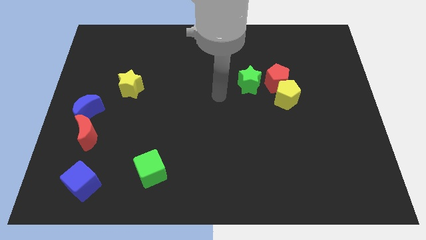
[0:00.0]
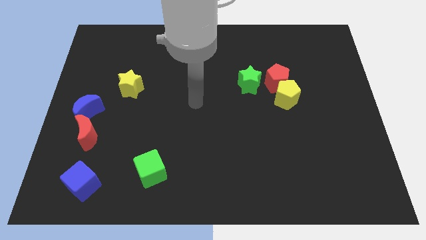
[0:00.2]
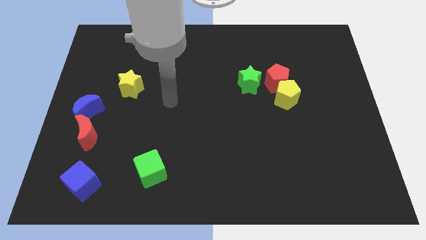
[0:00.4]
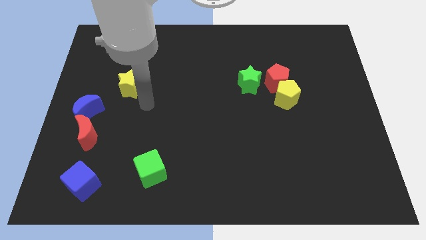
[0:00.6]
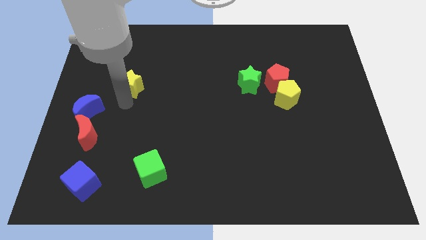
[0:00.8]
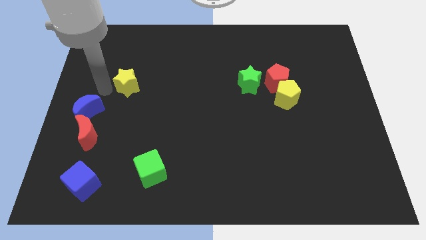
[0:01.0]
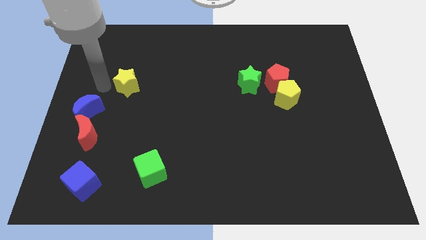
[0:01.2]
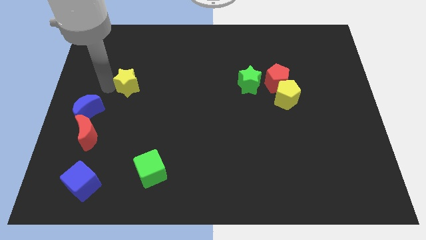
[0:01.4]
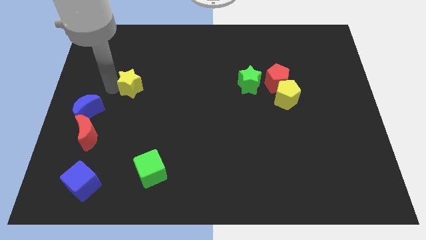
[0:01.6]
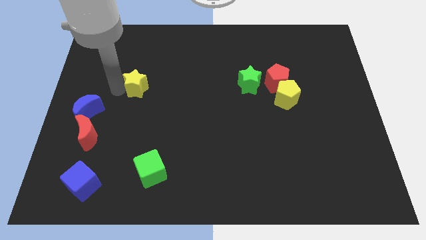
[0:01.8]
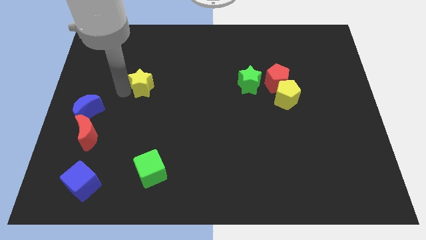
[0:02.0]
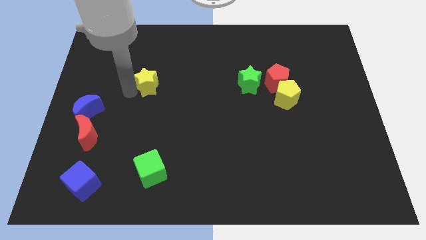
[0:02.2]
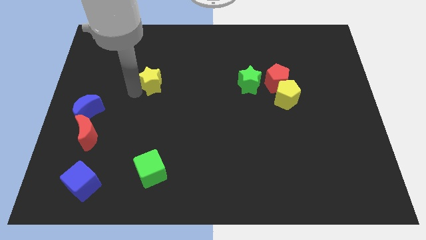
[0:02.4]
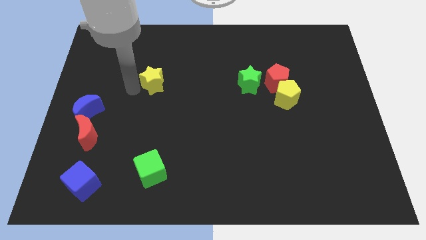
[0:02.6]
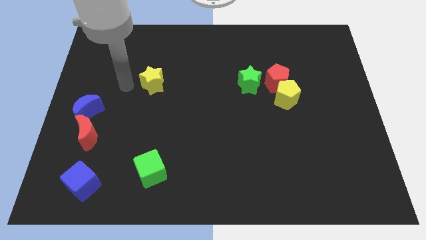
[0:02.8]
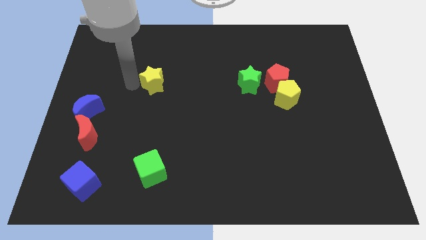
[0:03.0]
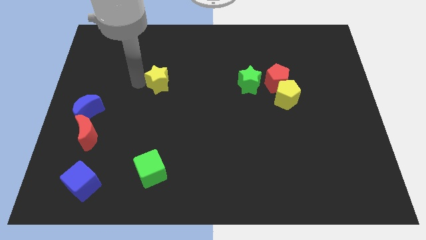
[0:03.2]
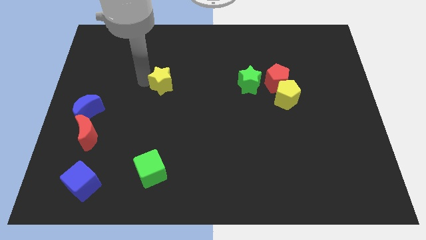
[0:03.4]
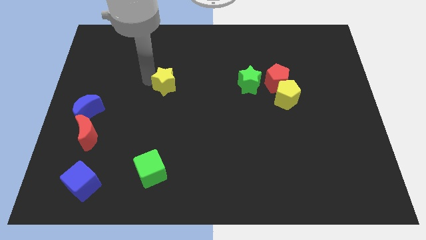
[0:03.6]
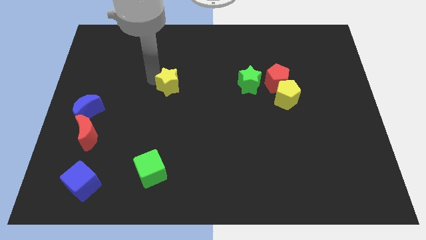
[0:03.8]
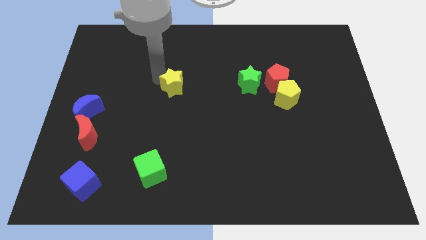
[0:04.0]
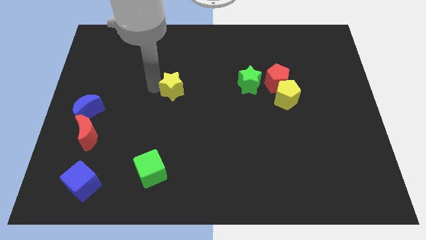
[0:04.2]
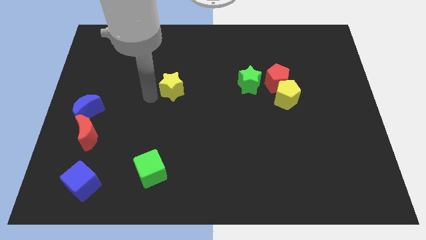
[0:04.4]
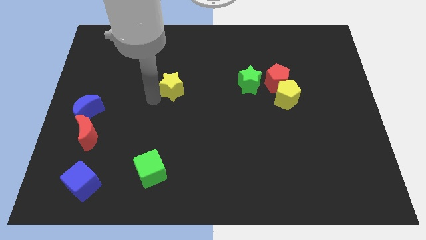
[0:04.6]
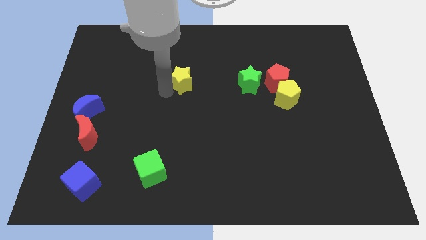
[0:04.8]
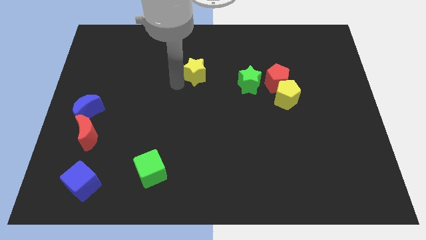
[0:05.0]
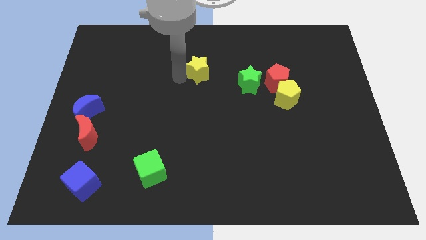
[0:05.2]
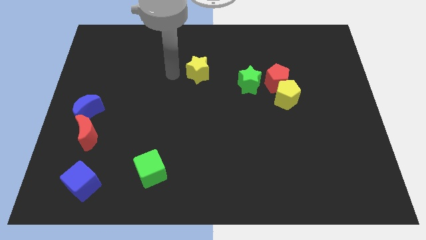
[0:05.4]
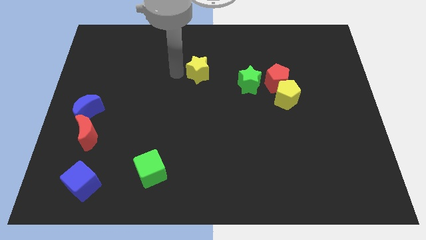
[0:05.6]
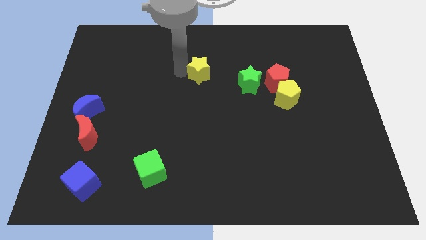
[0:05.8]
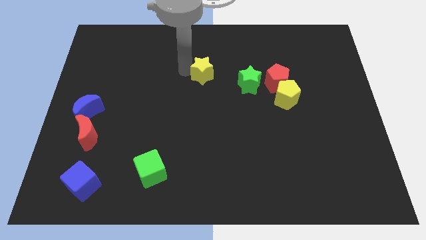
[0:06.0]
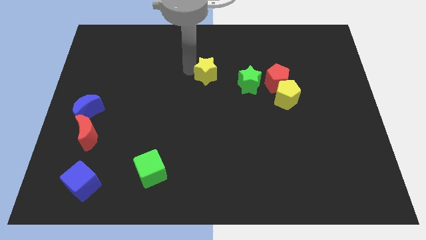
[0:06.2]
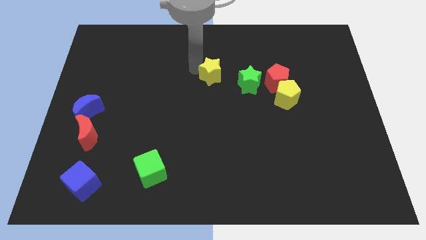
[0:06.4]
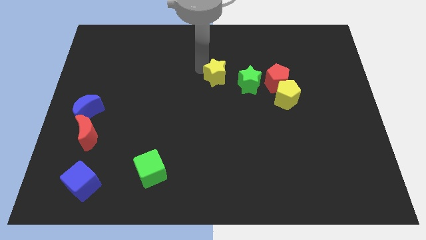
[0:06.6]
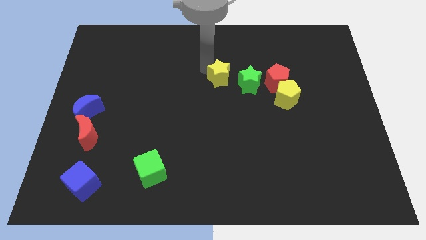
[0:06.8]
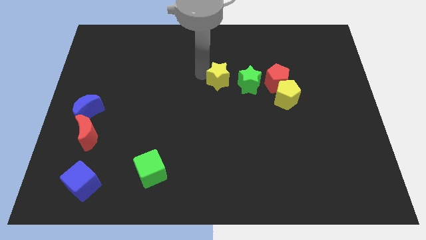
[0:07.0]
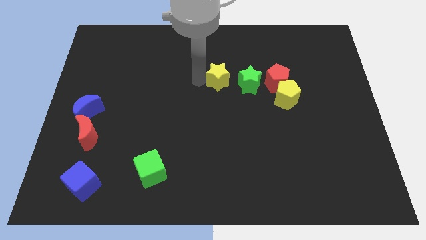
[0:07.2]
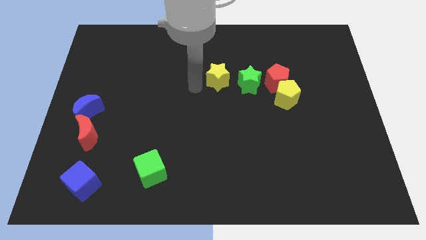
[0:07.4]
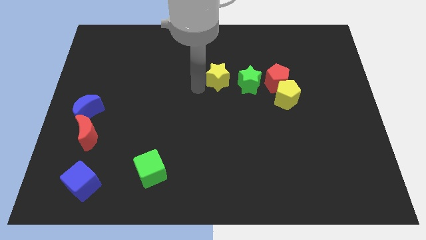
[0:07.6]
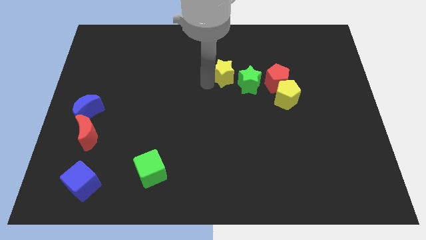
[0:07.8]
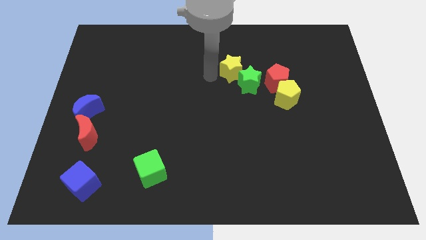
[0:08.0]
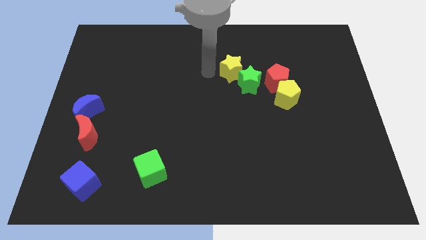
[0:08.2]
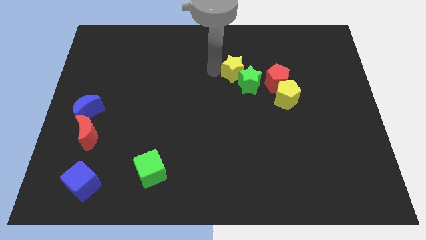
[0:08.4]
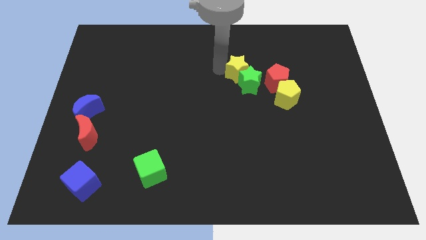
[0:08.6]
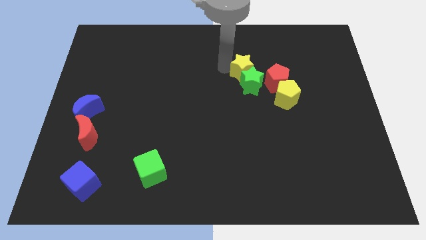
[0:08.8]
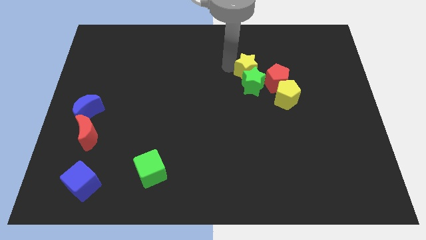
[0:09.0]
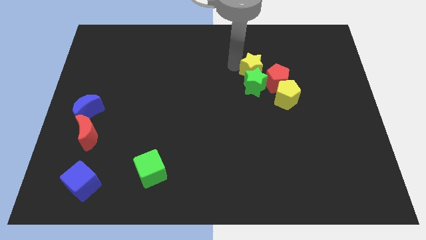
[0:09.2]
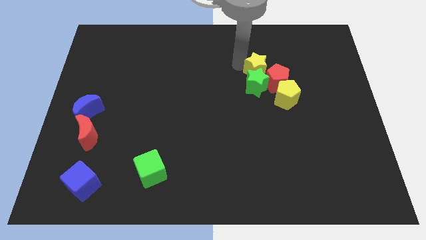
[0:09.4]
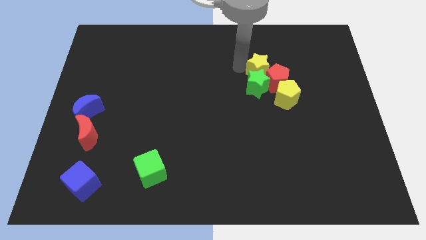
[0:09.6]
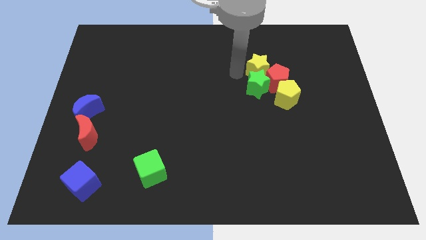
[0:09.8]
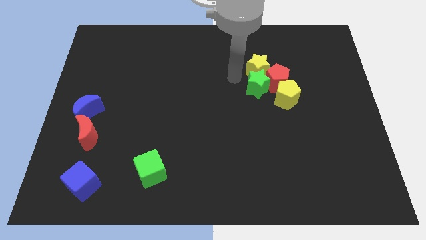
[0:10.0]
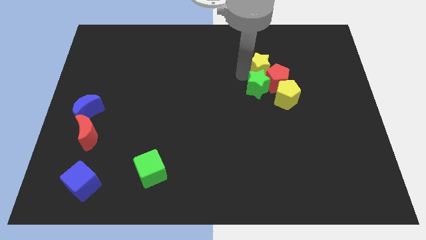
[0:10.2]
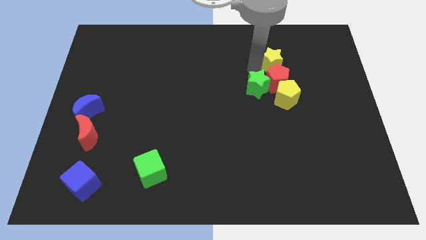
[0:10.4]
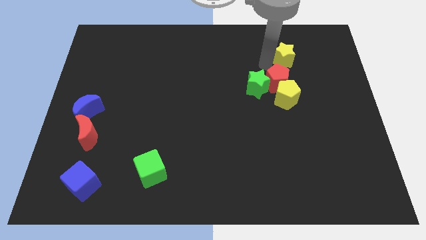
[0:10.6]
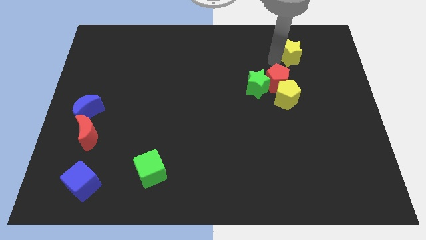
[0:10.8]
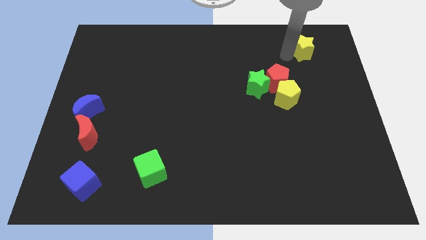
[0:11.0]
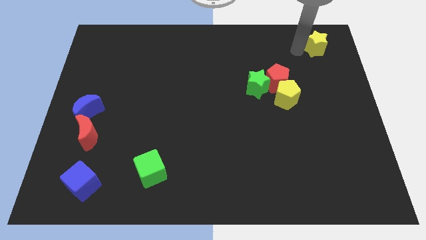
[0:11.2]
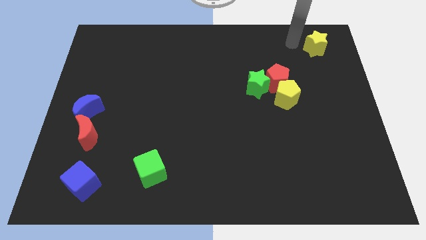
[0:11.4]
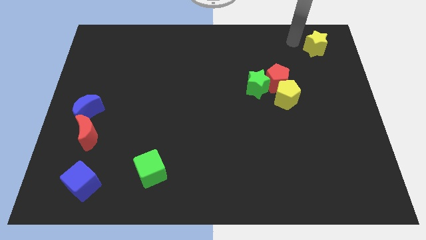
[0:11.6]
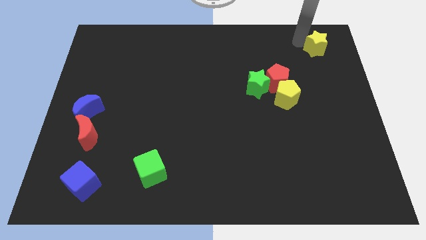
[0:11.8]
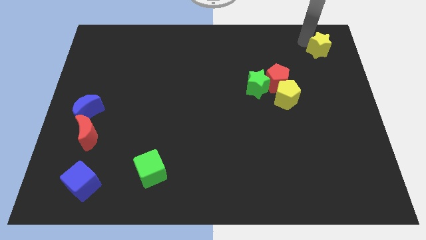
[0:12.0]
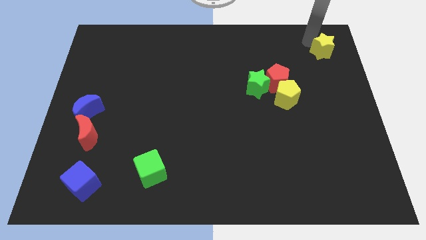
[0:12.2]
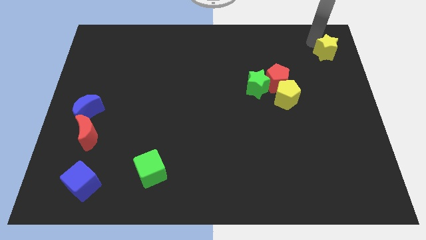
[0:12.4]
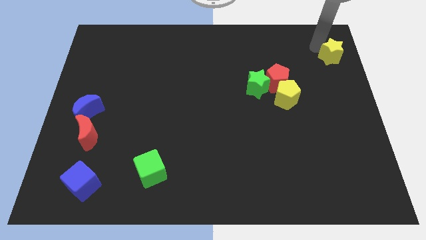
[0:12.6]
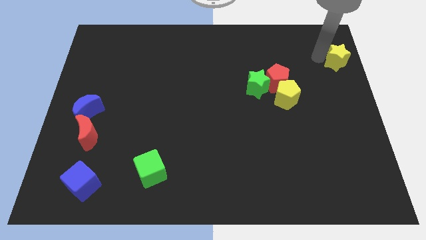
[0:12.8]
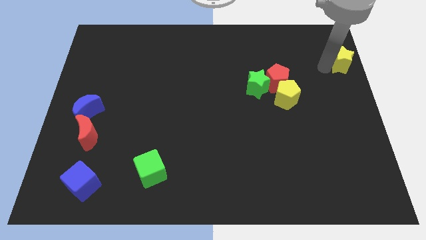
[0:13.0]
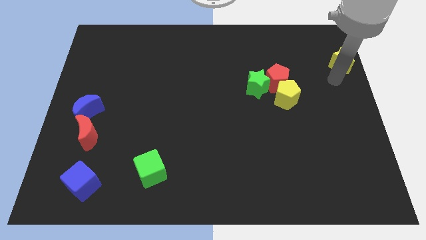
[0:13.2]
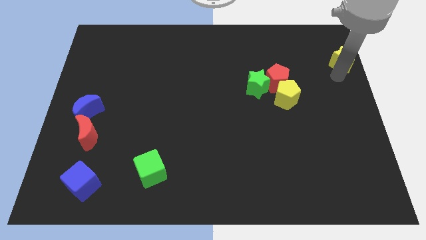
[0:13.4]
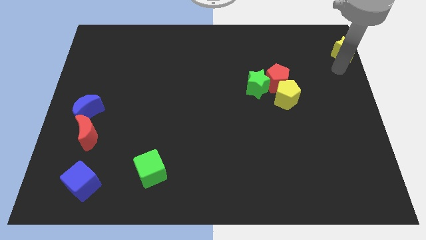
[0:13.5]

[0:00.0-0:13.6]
slide the yellow star to the top right of the board
